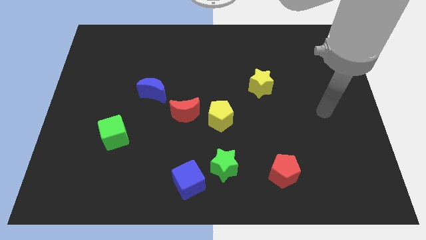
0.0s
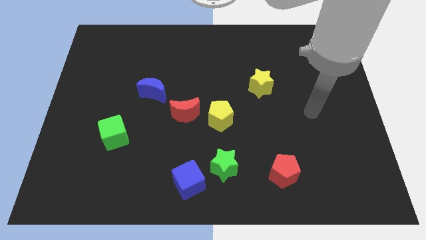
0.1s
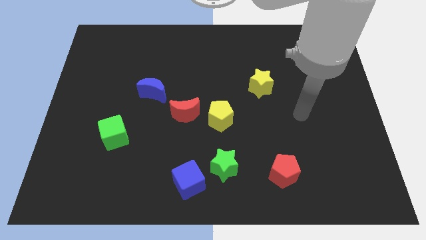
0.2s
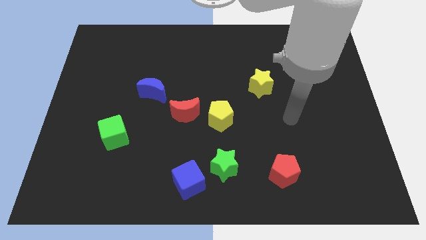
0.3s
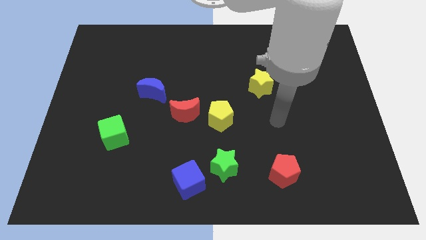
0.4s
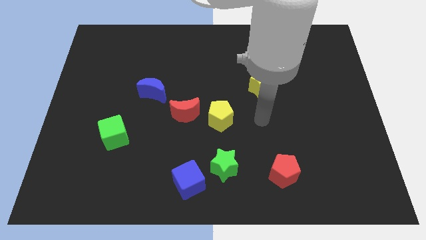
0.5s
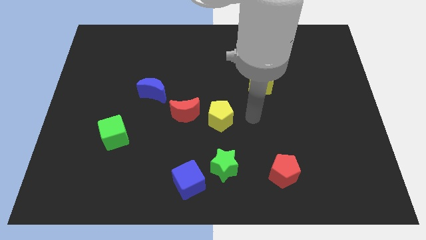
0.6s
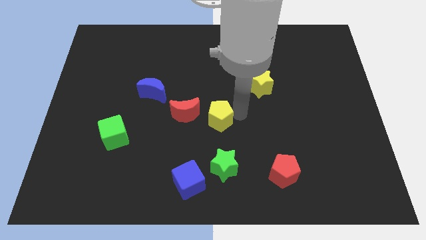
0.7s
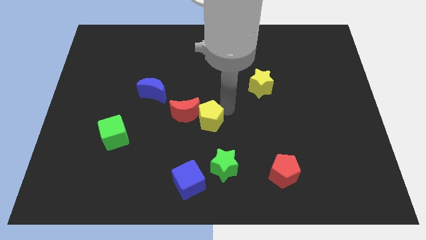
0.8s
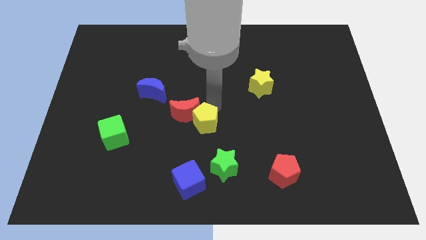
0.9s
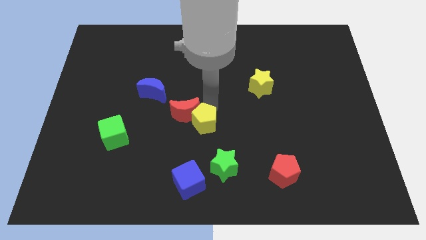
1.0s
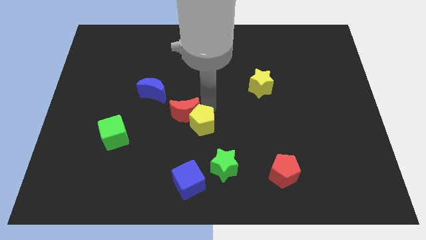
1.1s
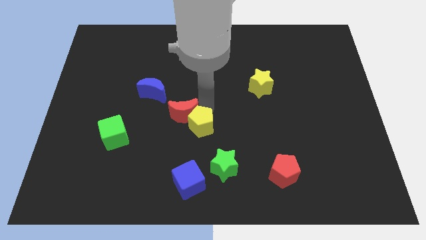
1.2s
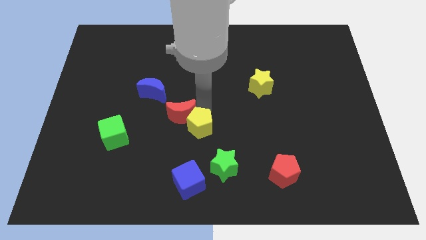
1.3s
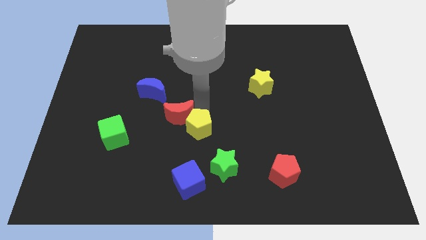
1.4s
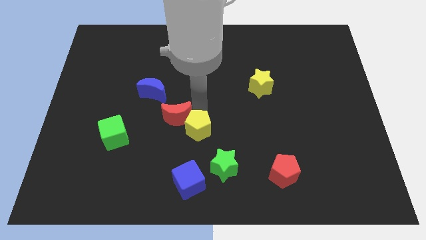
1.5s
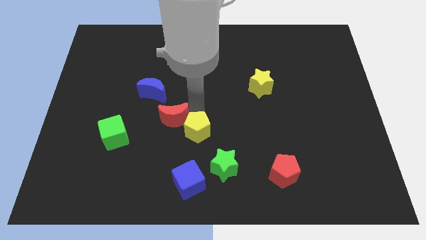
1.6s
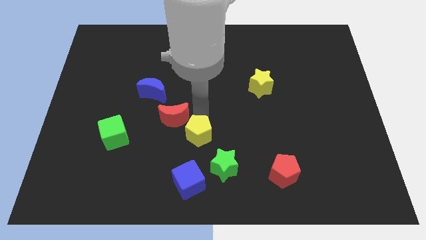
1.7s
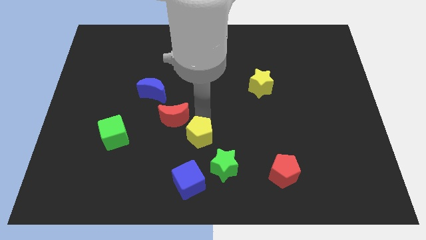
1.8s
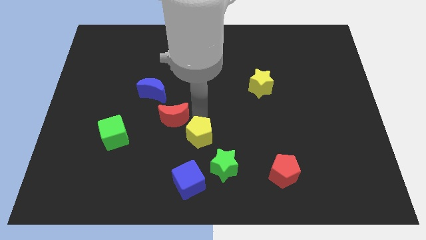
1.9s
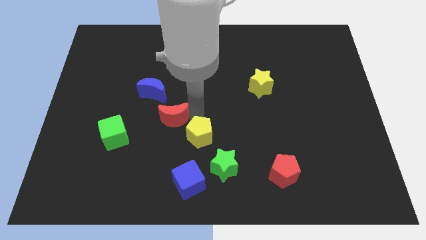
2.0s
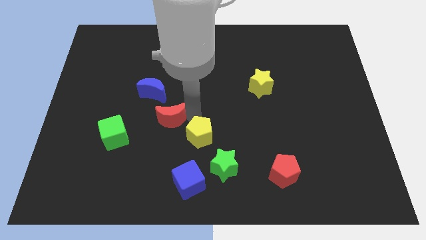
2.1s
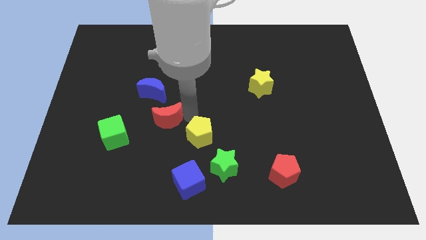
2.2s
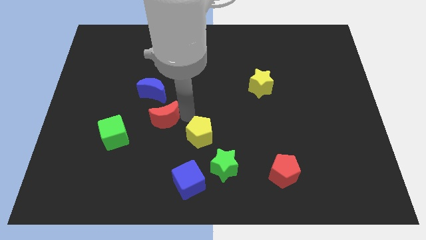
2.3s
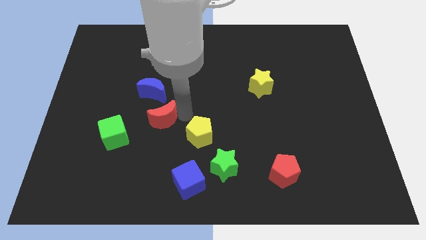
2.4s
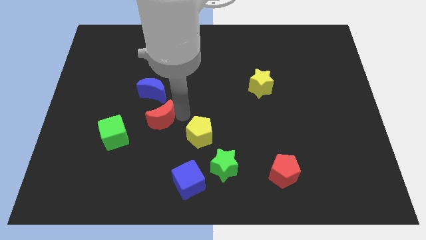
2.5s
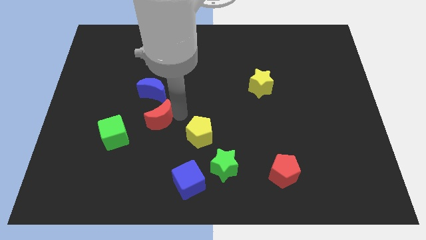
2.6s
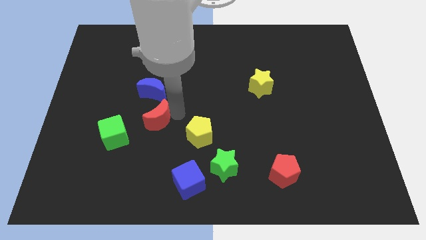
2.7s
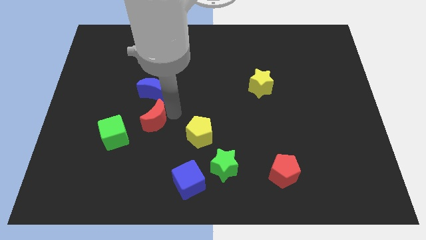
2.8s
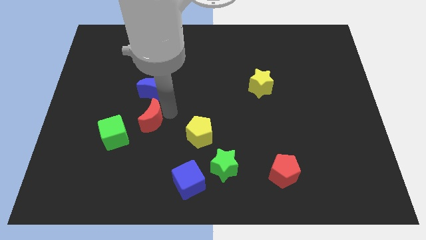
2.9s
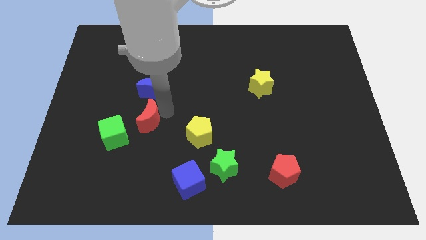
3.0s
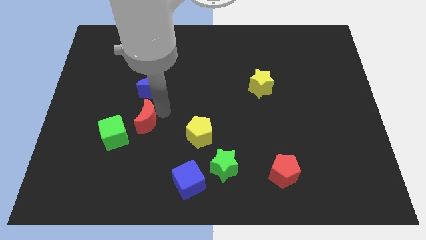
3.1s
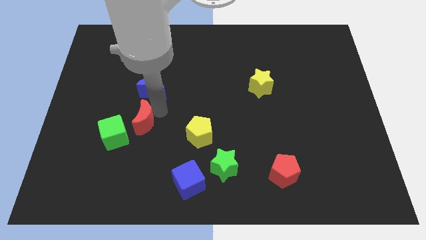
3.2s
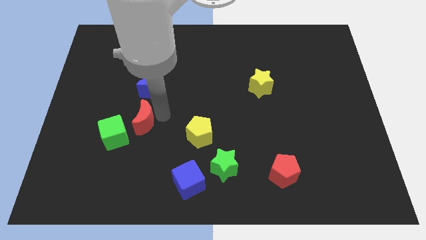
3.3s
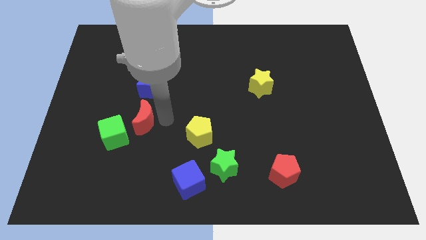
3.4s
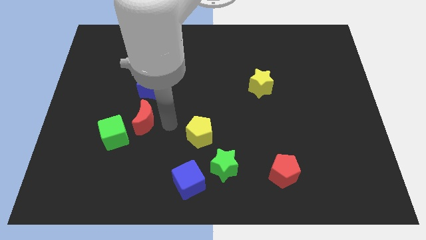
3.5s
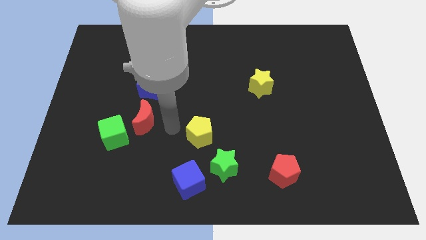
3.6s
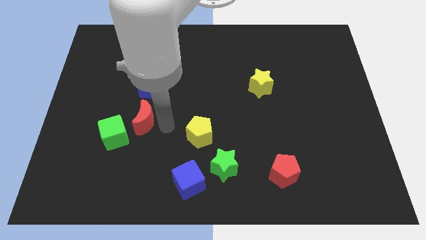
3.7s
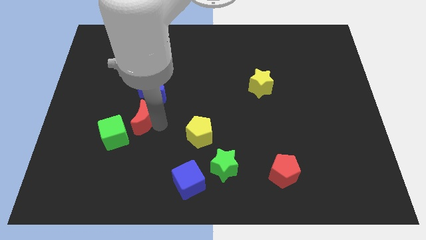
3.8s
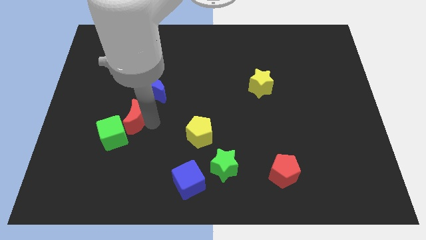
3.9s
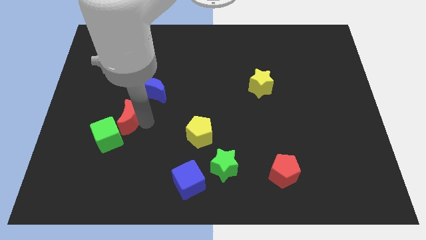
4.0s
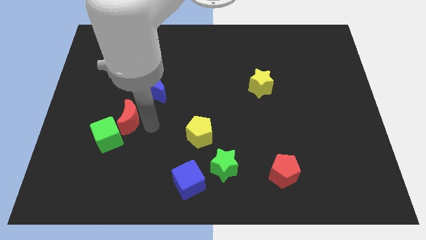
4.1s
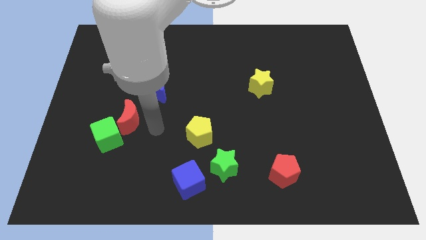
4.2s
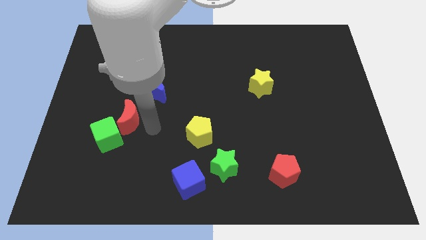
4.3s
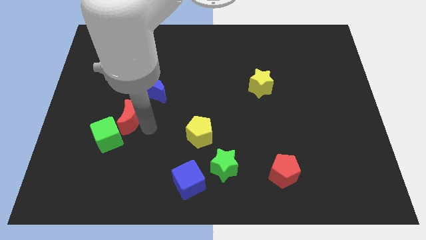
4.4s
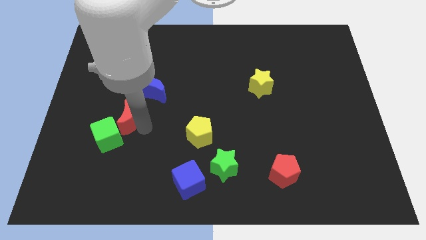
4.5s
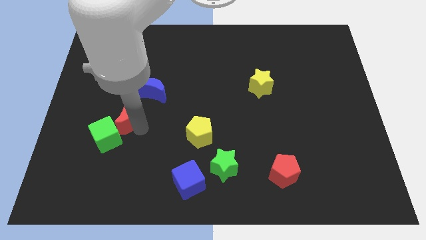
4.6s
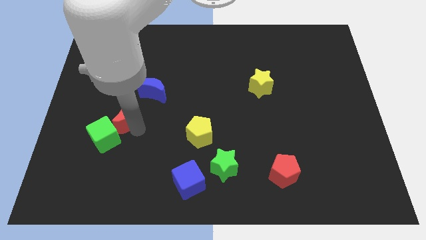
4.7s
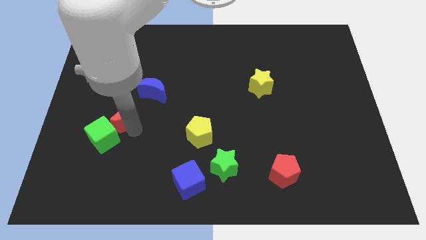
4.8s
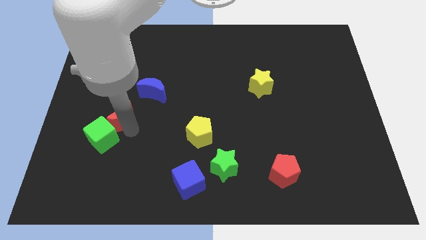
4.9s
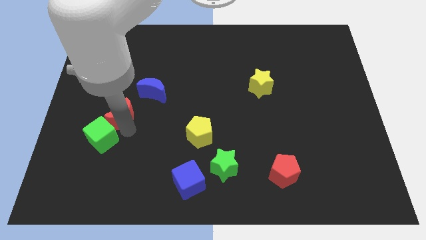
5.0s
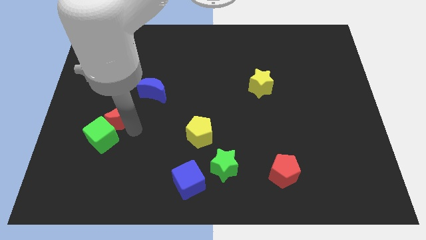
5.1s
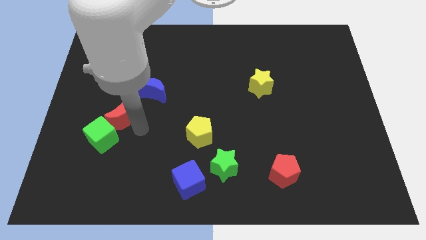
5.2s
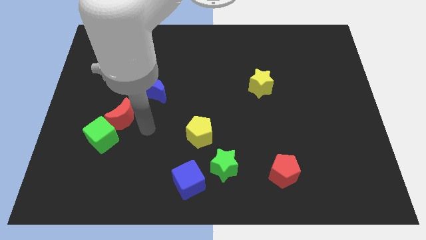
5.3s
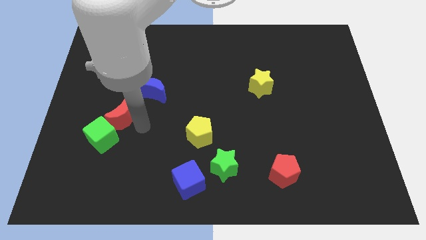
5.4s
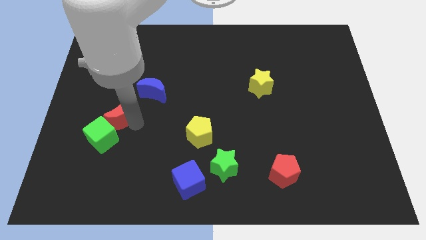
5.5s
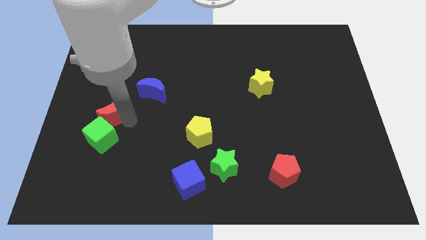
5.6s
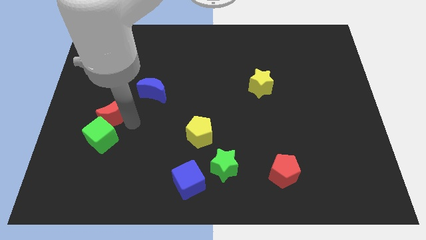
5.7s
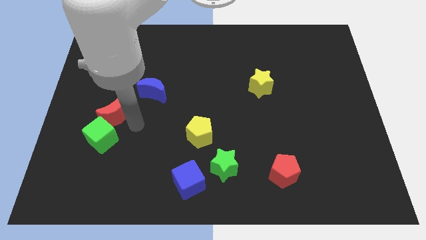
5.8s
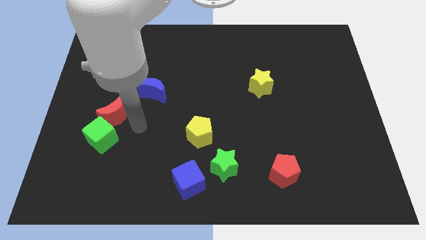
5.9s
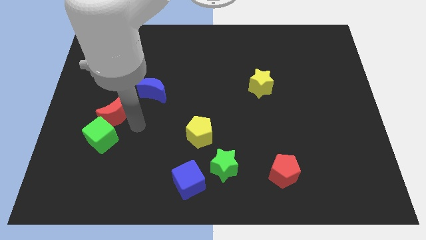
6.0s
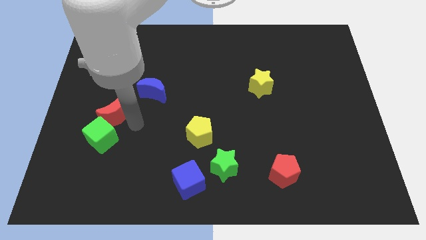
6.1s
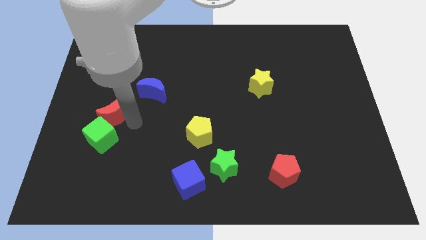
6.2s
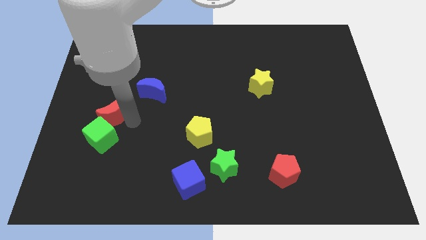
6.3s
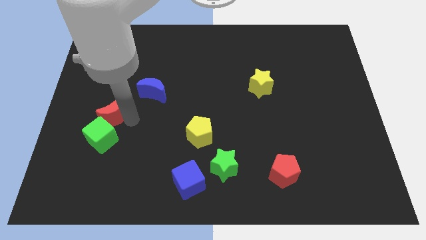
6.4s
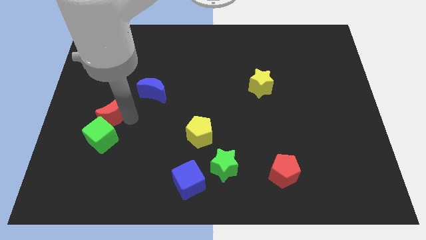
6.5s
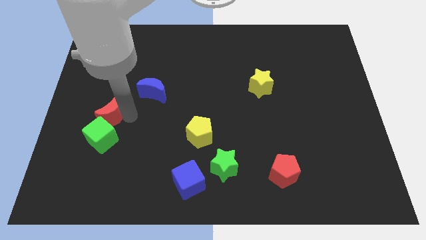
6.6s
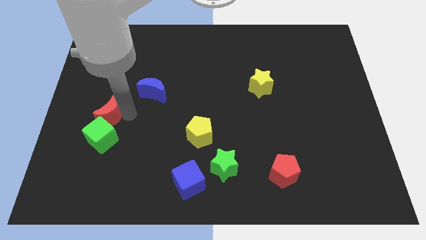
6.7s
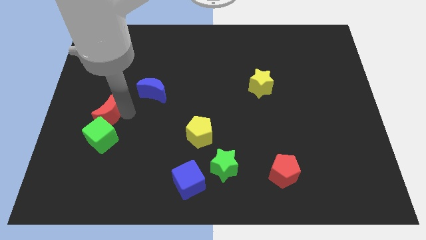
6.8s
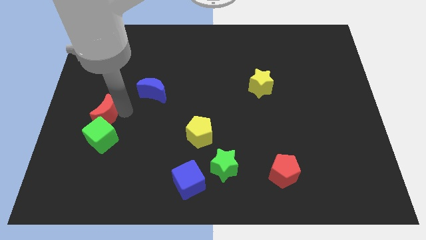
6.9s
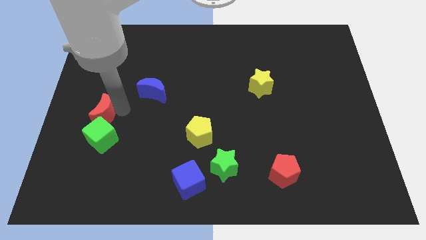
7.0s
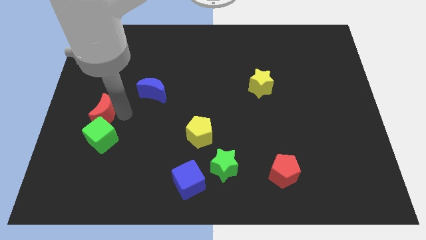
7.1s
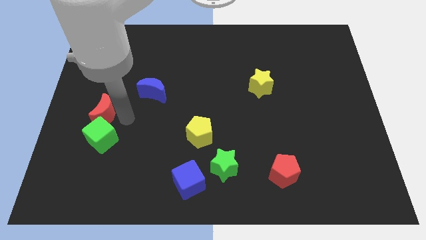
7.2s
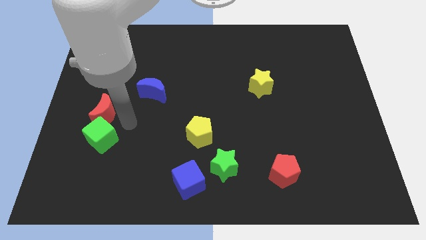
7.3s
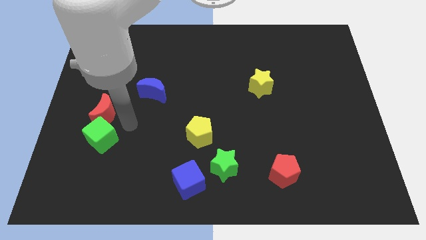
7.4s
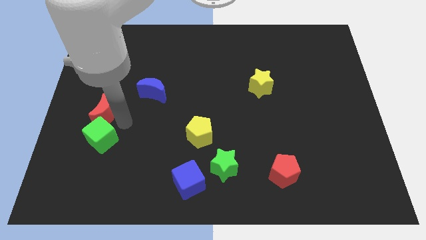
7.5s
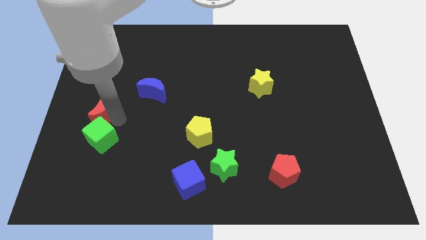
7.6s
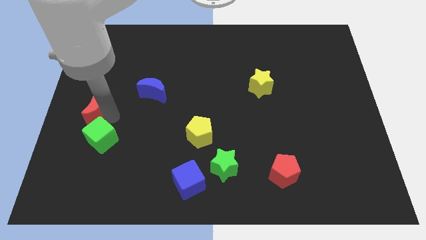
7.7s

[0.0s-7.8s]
push the red moon to the left side of the board
